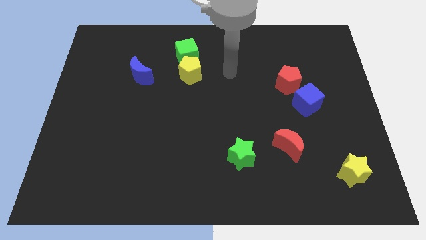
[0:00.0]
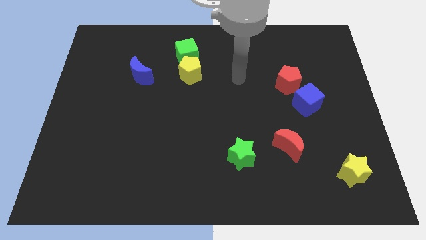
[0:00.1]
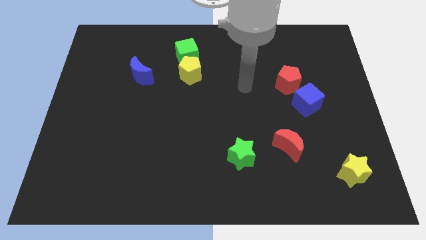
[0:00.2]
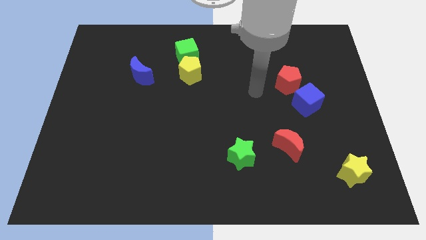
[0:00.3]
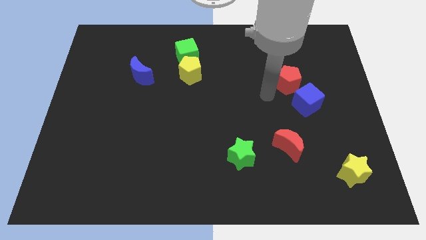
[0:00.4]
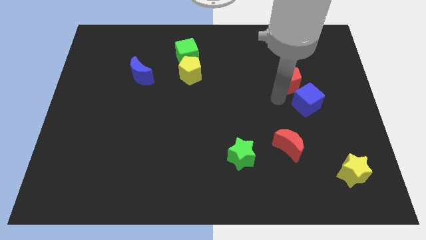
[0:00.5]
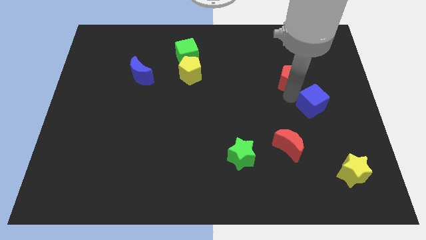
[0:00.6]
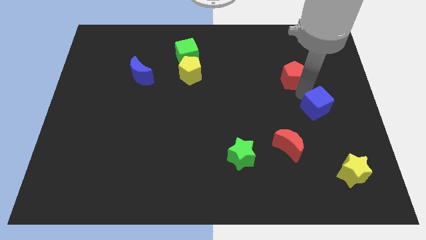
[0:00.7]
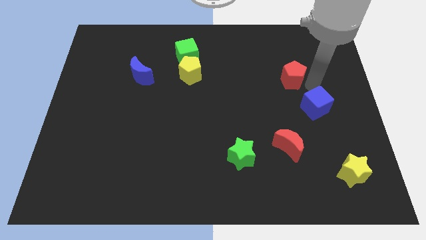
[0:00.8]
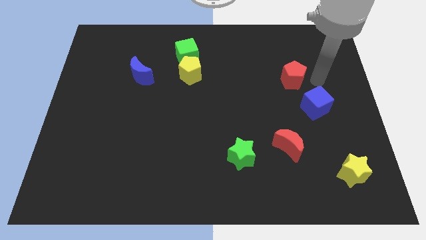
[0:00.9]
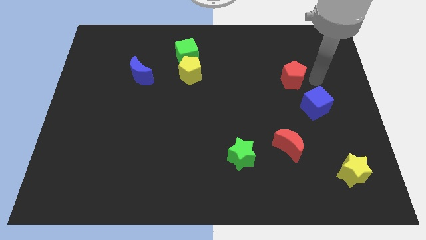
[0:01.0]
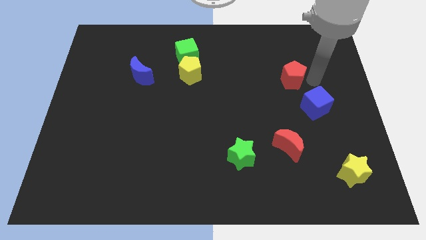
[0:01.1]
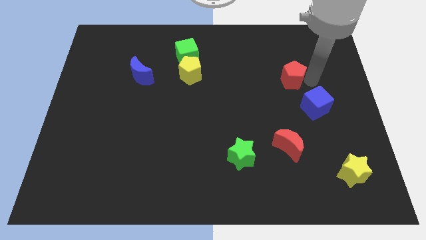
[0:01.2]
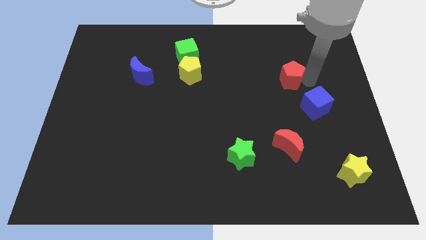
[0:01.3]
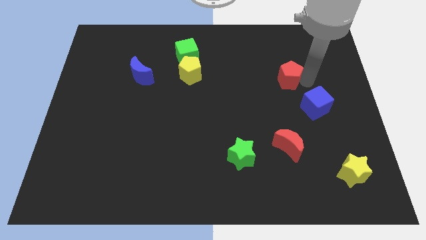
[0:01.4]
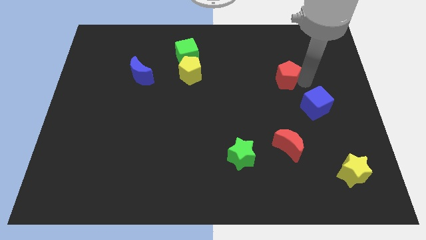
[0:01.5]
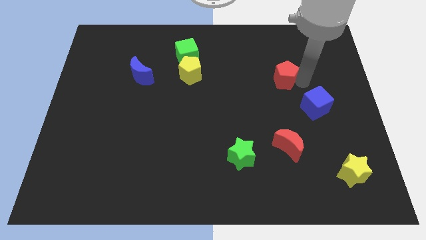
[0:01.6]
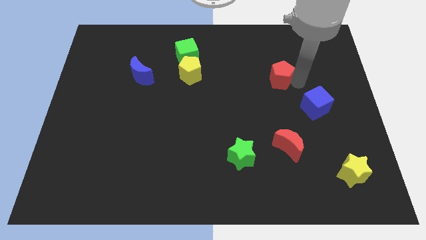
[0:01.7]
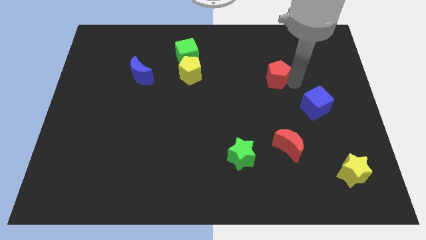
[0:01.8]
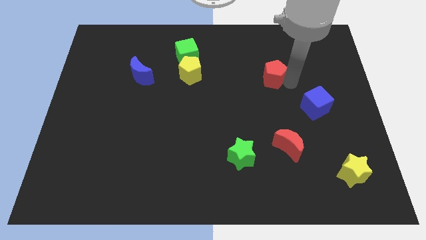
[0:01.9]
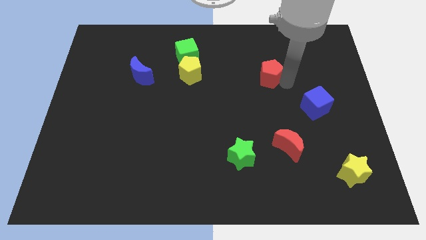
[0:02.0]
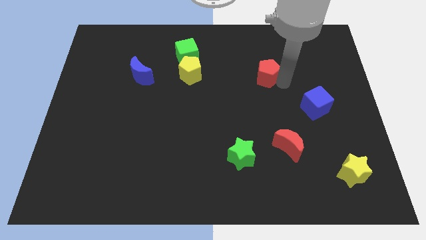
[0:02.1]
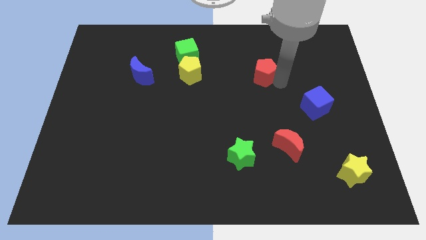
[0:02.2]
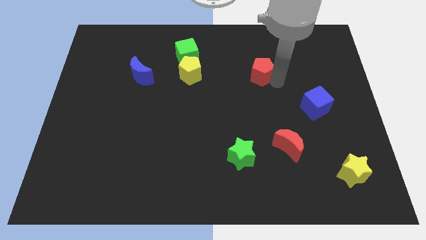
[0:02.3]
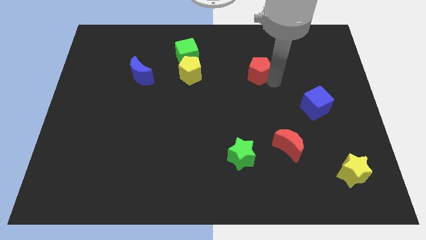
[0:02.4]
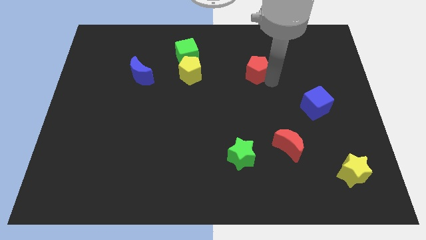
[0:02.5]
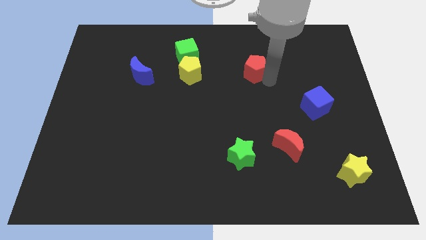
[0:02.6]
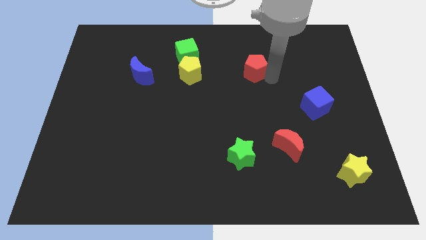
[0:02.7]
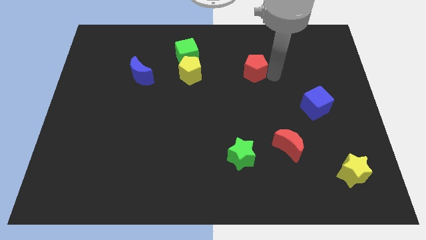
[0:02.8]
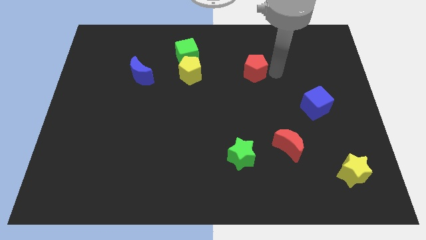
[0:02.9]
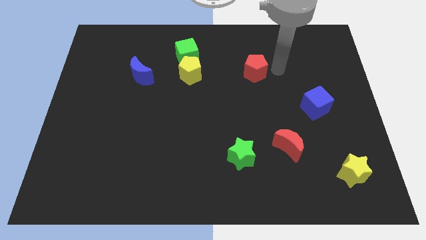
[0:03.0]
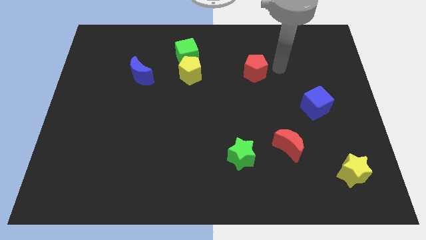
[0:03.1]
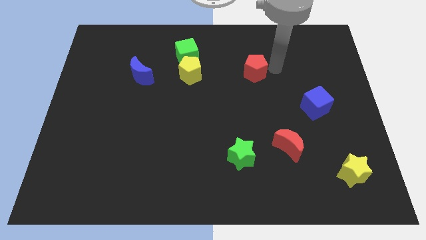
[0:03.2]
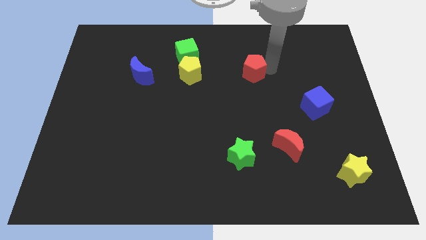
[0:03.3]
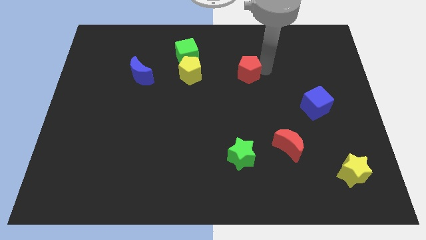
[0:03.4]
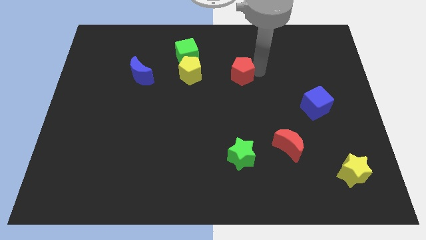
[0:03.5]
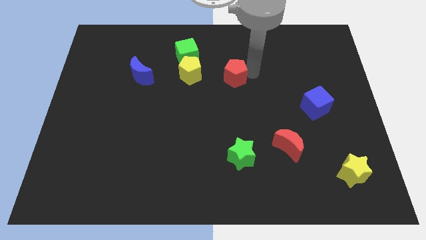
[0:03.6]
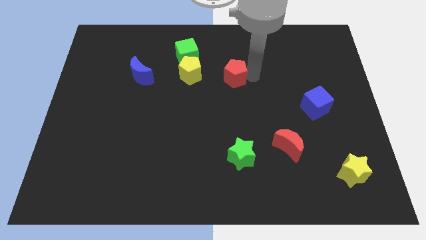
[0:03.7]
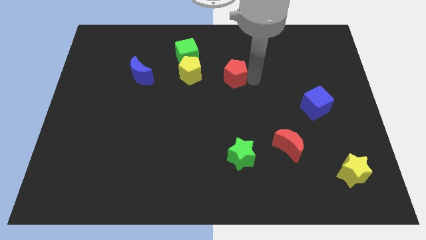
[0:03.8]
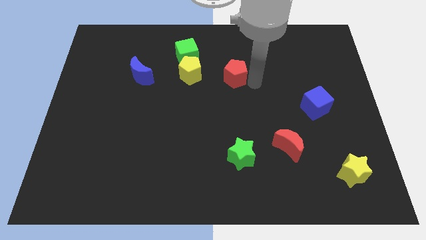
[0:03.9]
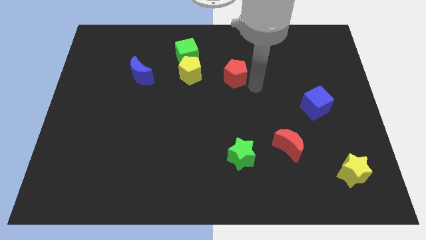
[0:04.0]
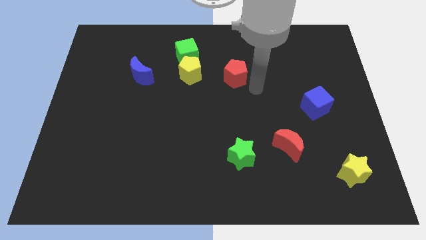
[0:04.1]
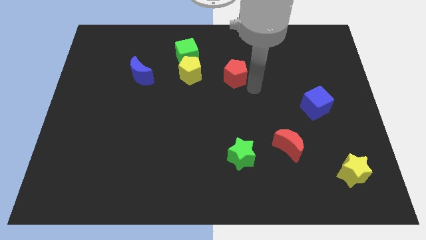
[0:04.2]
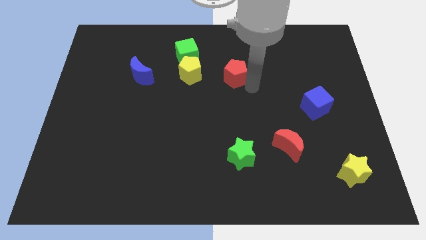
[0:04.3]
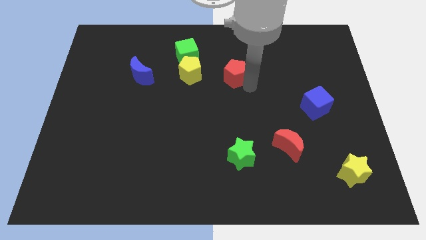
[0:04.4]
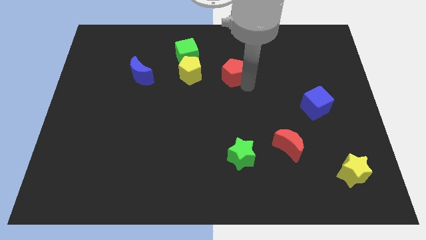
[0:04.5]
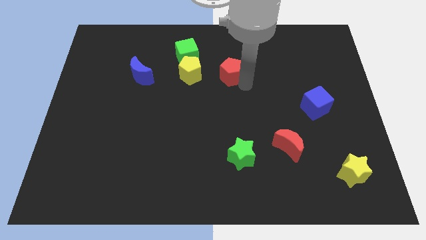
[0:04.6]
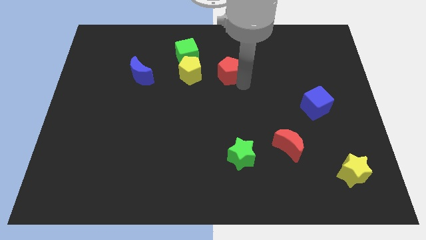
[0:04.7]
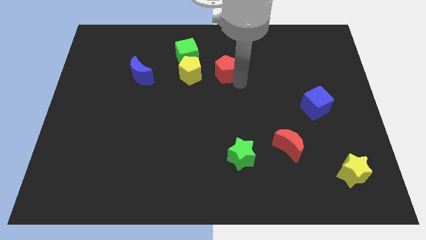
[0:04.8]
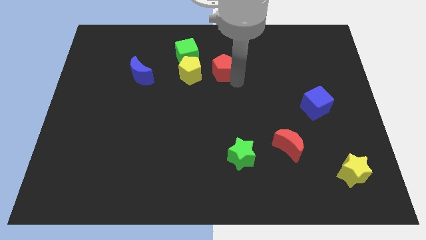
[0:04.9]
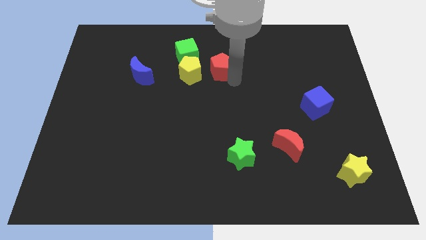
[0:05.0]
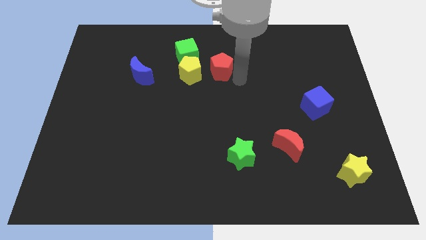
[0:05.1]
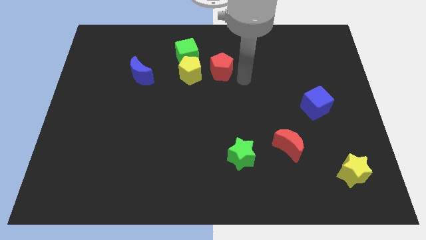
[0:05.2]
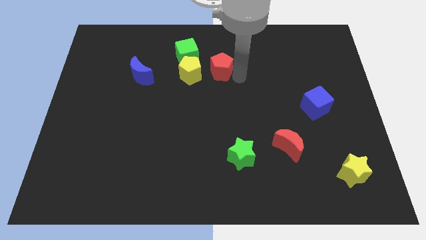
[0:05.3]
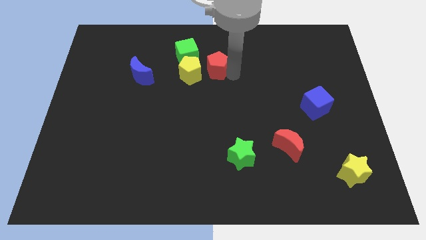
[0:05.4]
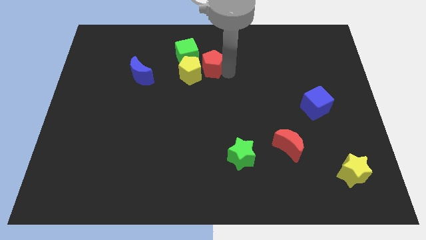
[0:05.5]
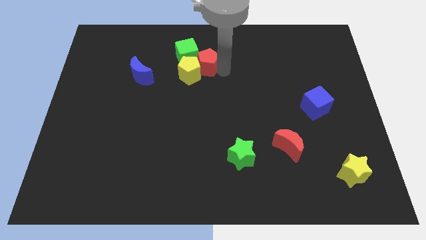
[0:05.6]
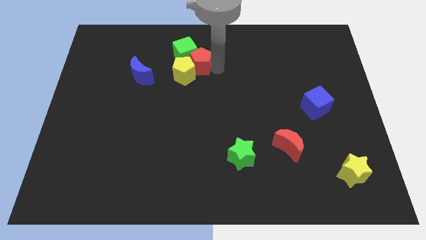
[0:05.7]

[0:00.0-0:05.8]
put the red pentagon next to the green cube

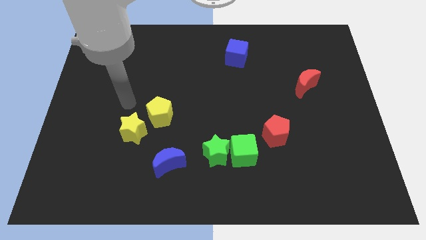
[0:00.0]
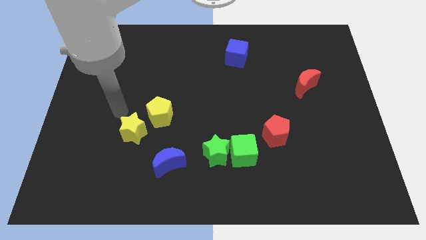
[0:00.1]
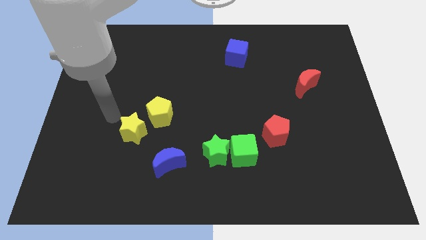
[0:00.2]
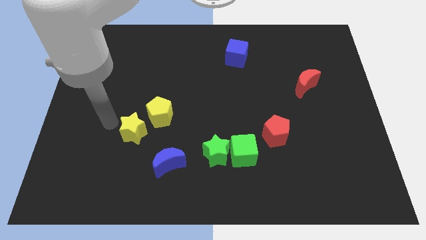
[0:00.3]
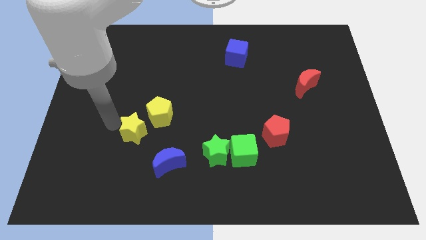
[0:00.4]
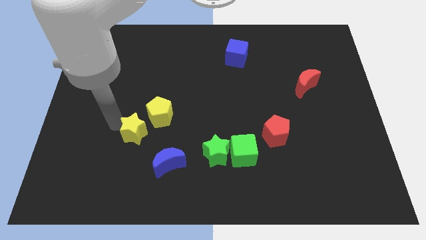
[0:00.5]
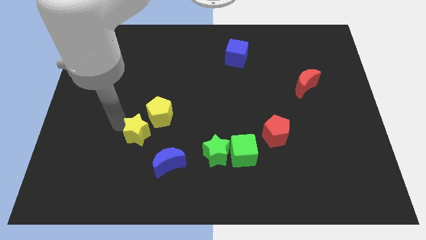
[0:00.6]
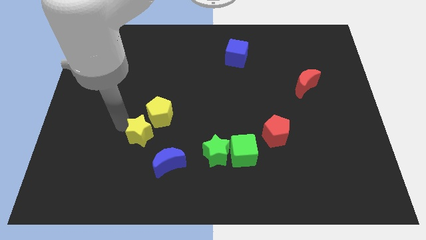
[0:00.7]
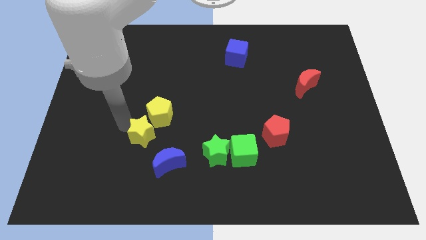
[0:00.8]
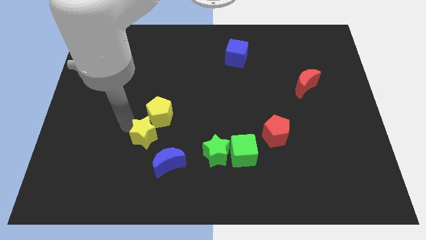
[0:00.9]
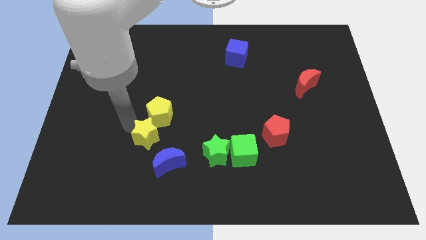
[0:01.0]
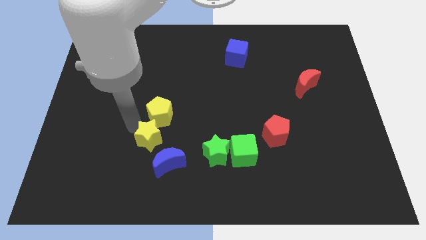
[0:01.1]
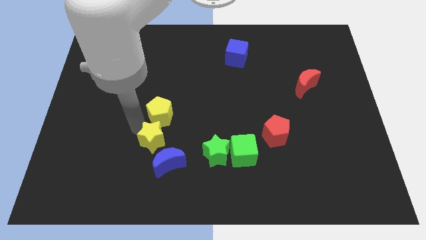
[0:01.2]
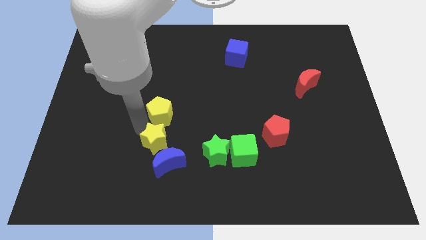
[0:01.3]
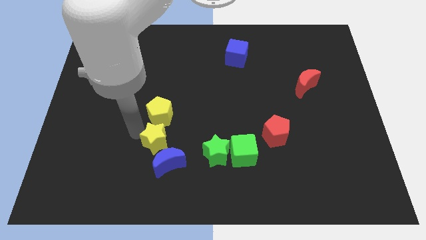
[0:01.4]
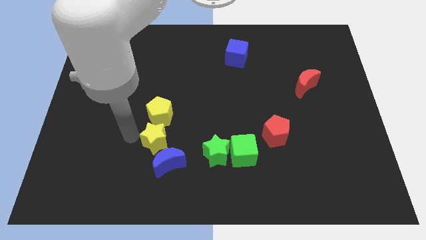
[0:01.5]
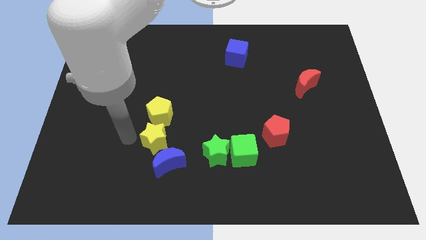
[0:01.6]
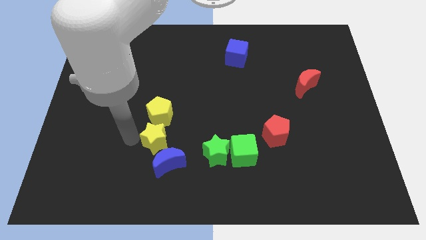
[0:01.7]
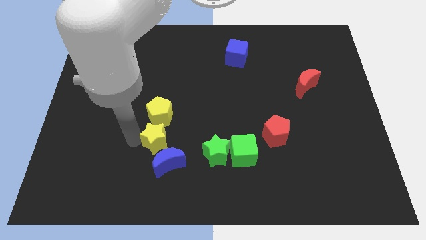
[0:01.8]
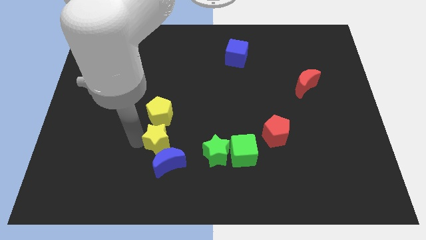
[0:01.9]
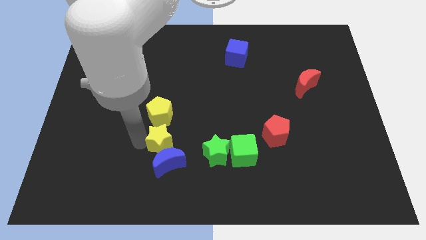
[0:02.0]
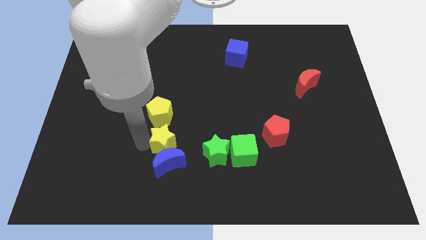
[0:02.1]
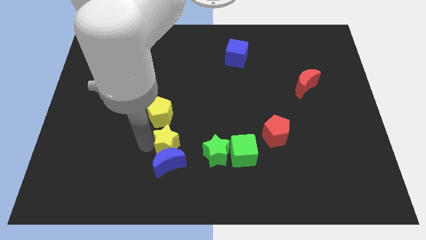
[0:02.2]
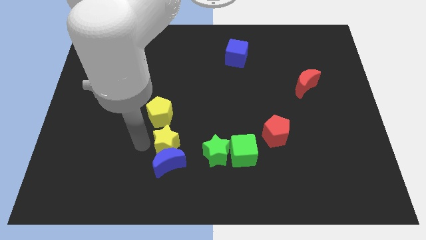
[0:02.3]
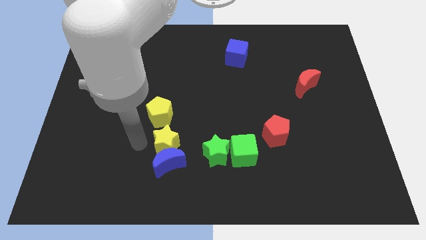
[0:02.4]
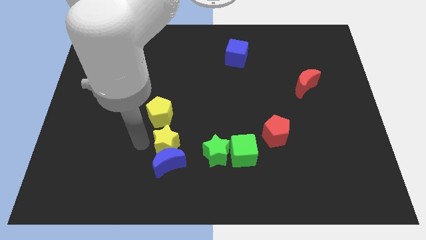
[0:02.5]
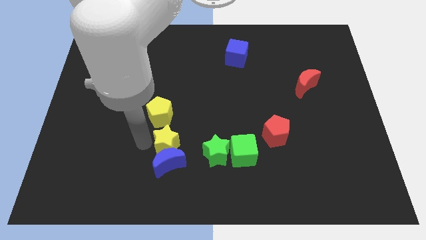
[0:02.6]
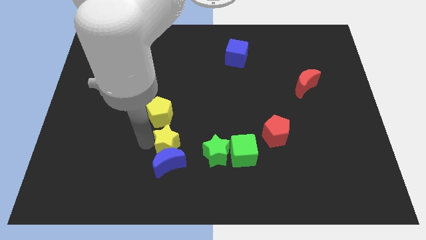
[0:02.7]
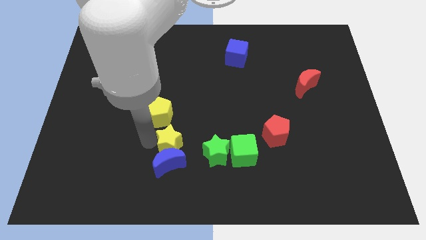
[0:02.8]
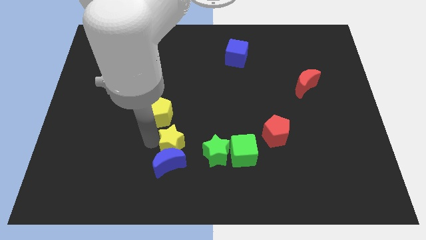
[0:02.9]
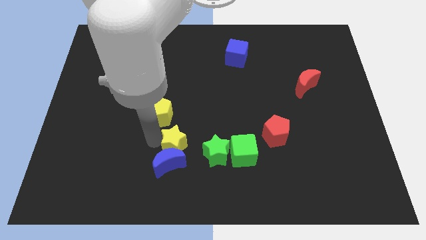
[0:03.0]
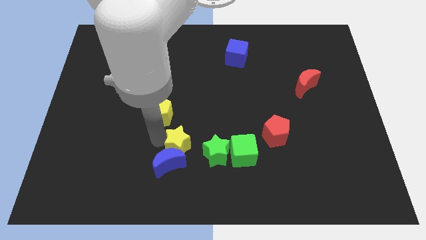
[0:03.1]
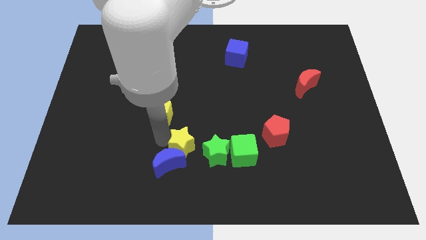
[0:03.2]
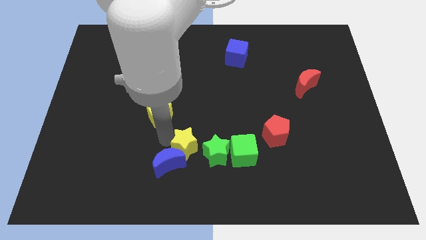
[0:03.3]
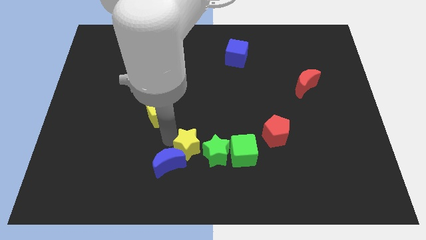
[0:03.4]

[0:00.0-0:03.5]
push the yellow star close to the green star
